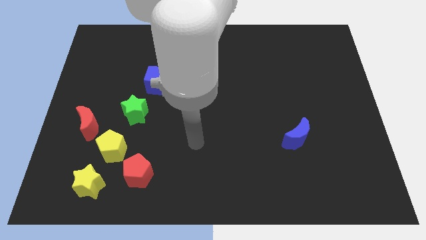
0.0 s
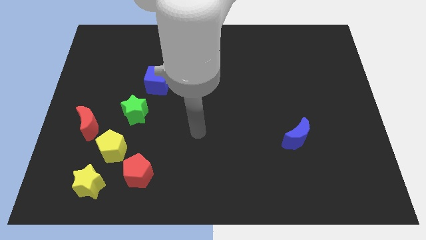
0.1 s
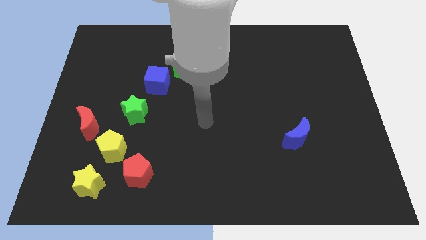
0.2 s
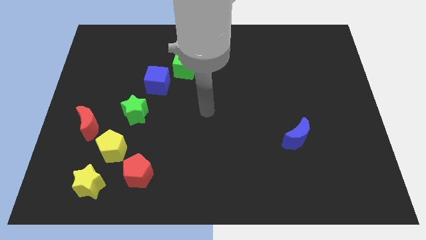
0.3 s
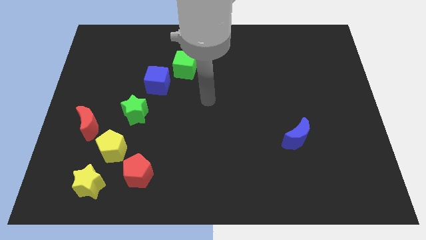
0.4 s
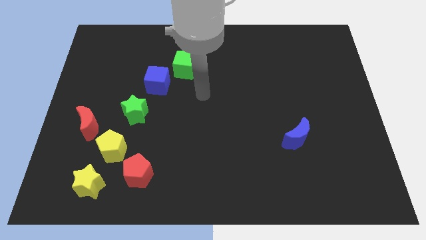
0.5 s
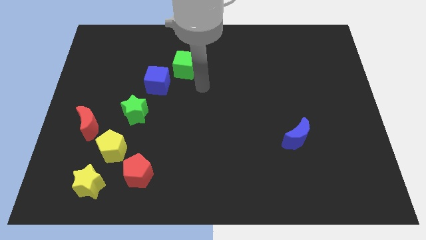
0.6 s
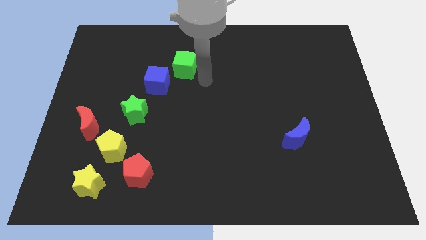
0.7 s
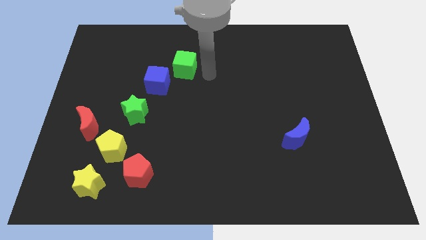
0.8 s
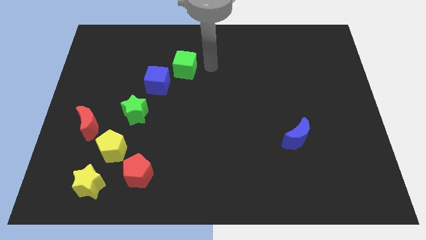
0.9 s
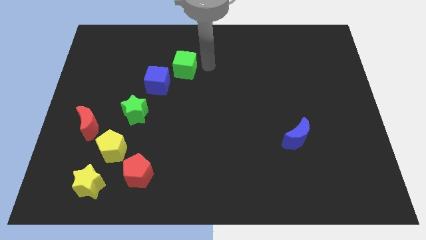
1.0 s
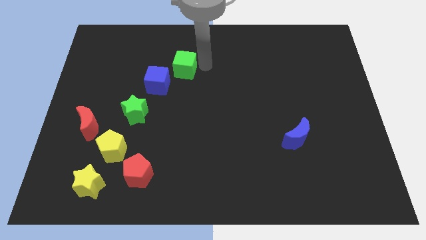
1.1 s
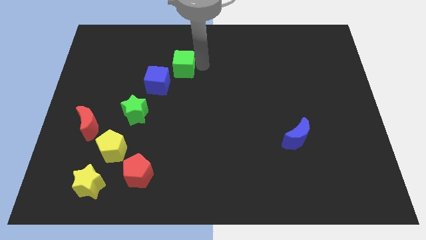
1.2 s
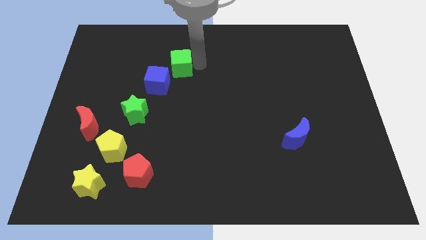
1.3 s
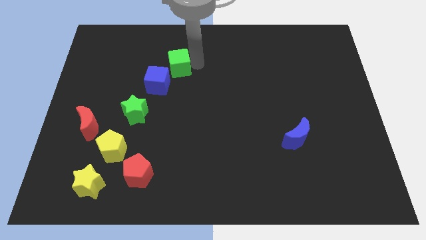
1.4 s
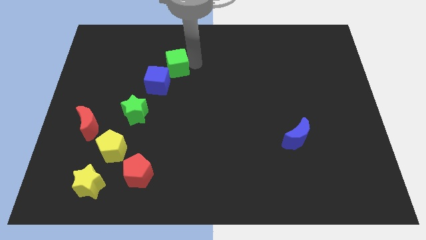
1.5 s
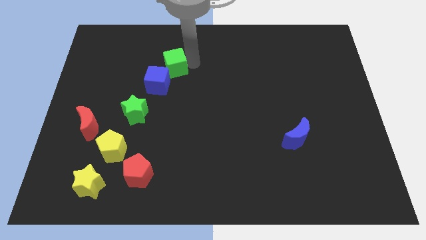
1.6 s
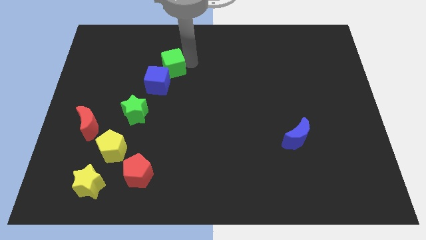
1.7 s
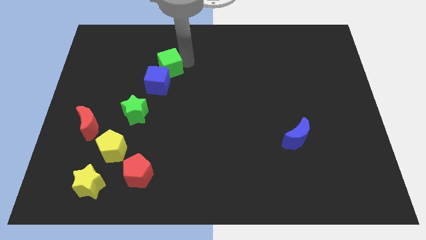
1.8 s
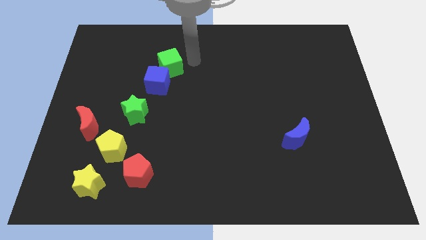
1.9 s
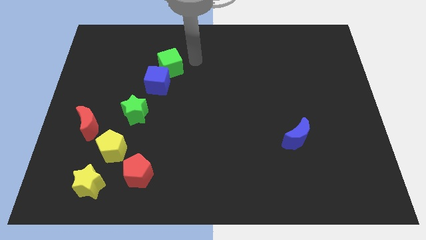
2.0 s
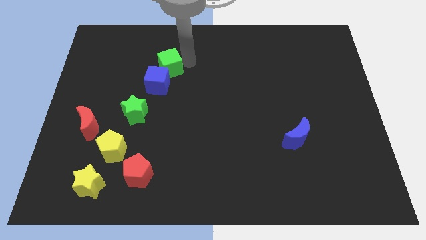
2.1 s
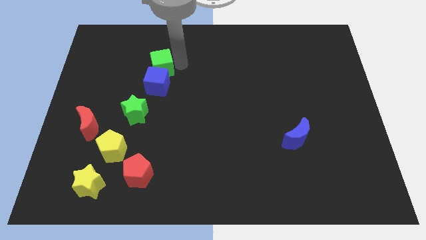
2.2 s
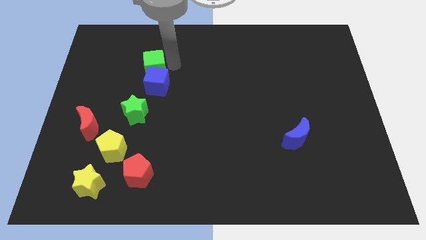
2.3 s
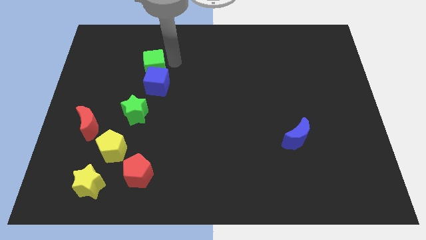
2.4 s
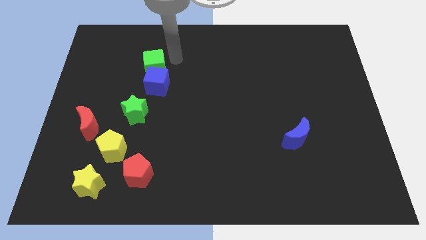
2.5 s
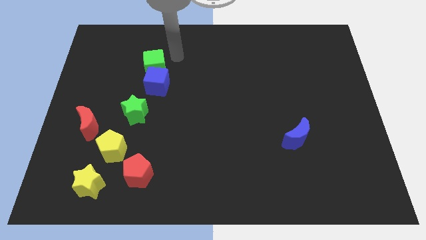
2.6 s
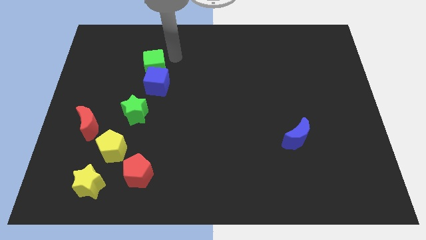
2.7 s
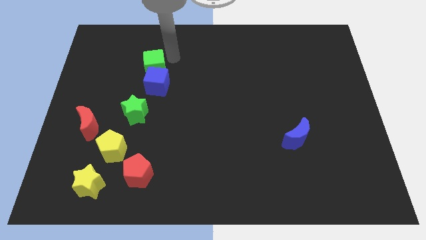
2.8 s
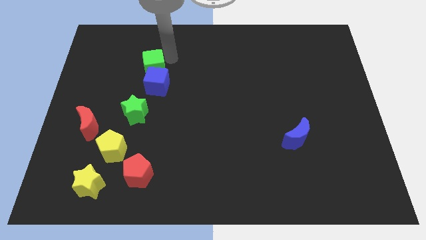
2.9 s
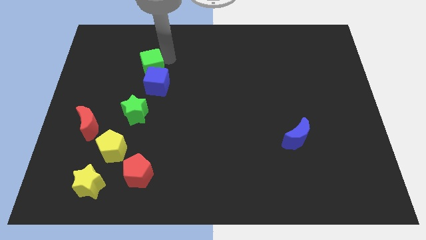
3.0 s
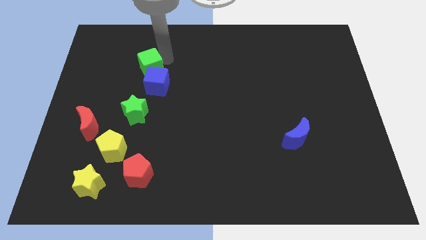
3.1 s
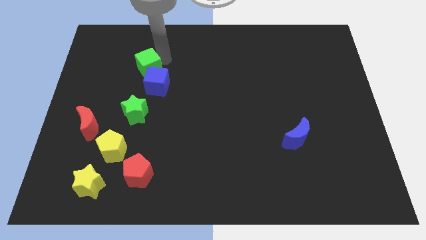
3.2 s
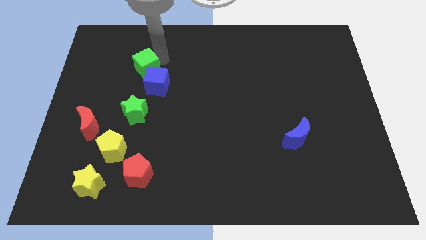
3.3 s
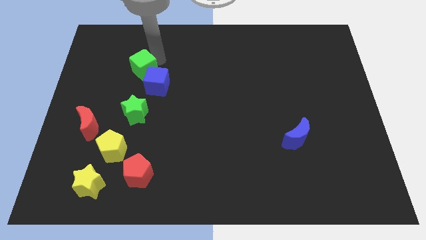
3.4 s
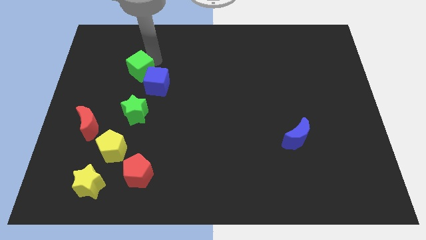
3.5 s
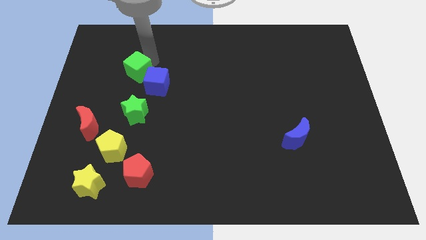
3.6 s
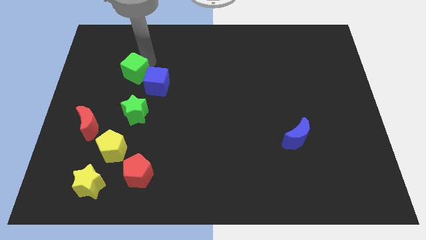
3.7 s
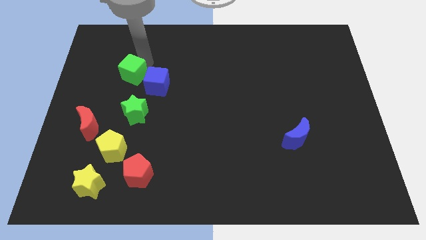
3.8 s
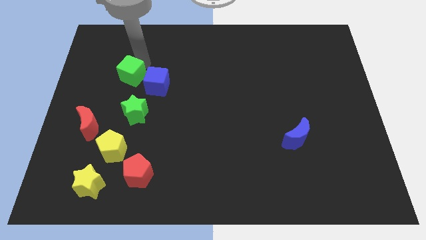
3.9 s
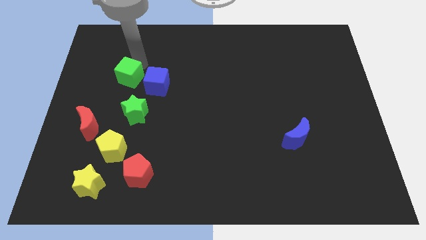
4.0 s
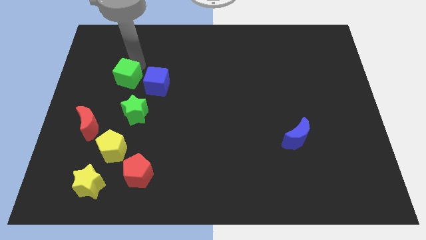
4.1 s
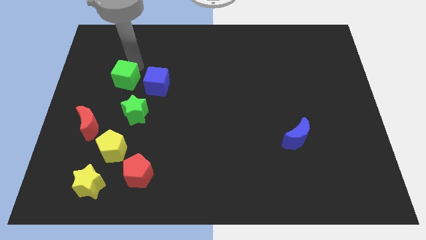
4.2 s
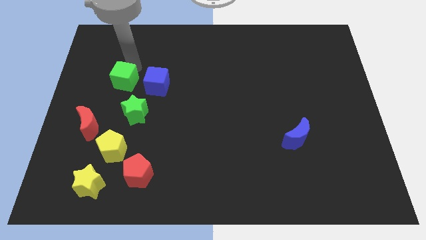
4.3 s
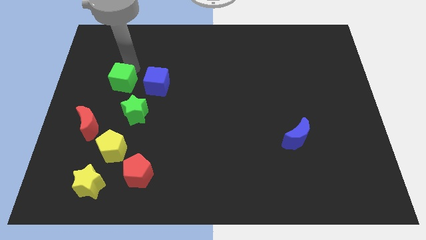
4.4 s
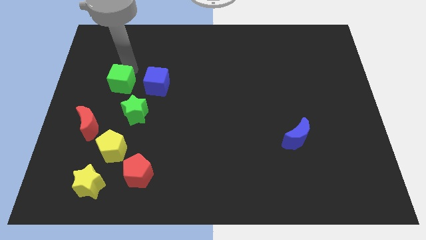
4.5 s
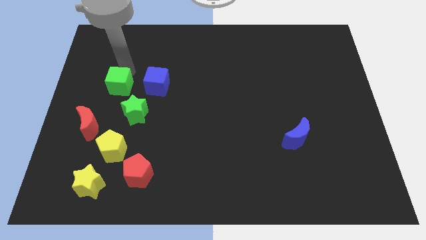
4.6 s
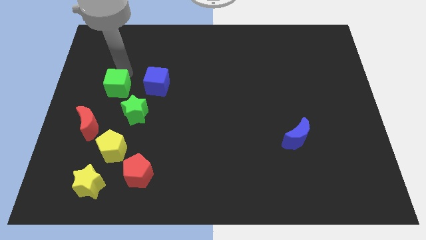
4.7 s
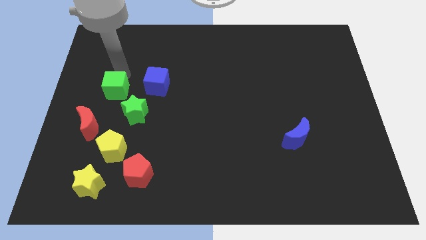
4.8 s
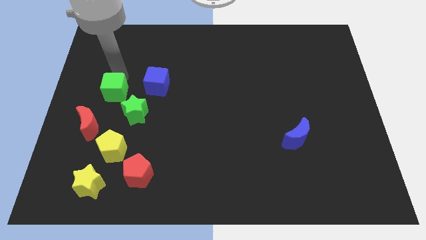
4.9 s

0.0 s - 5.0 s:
slide the green cube to the top right of the red moon

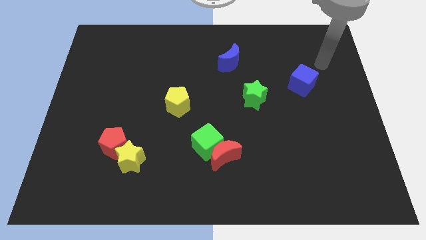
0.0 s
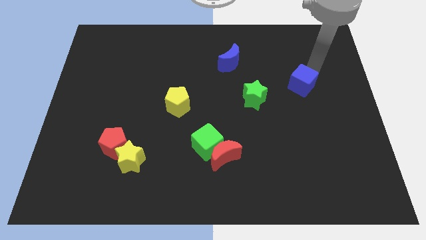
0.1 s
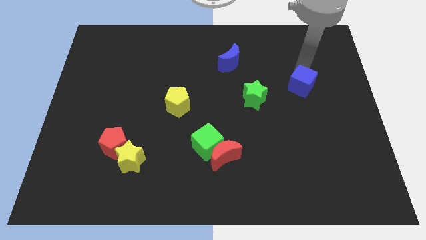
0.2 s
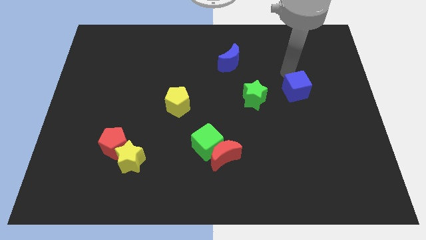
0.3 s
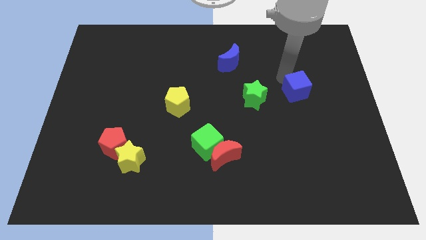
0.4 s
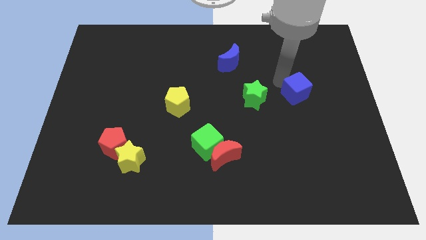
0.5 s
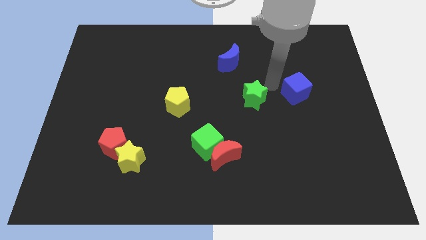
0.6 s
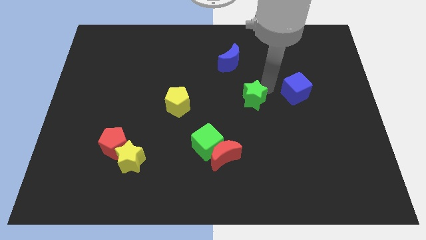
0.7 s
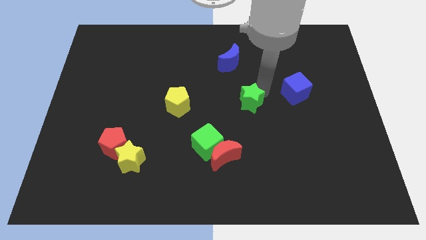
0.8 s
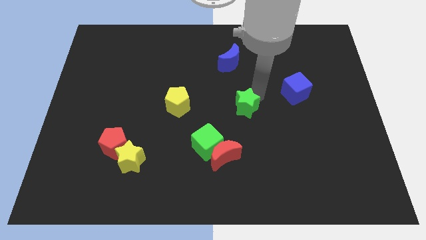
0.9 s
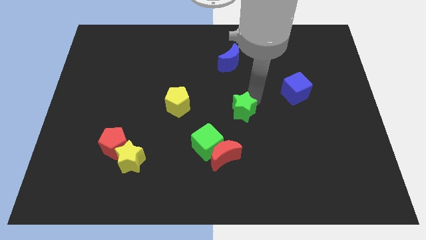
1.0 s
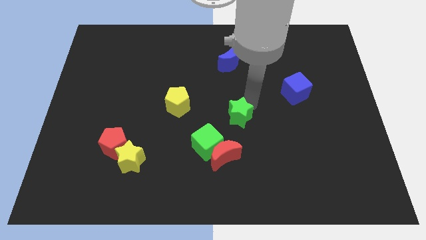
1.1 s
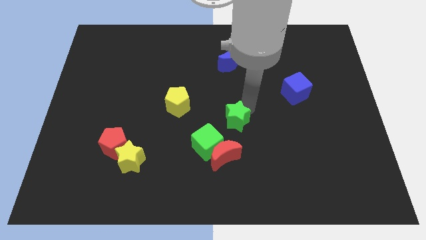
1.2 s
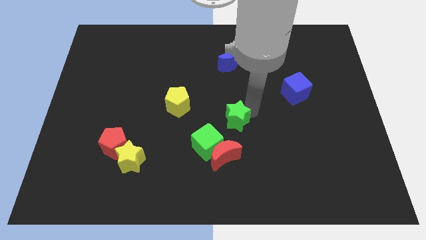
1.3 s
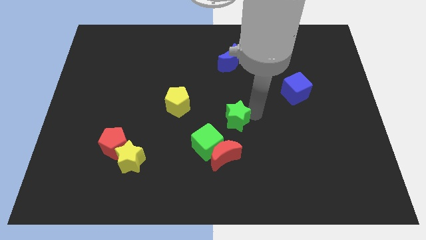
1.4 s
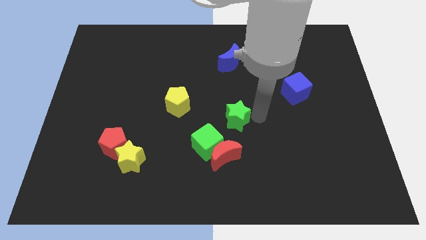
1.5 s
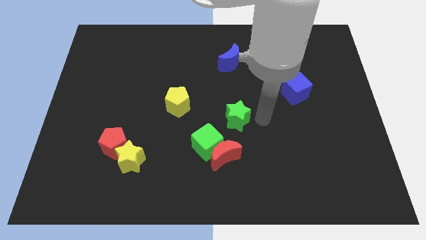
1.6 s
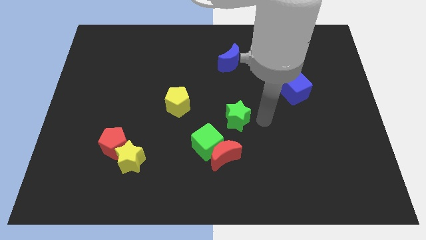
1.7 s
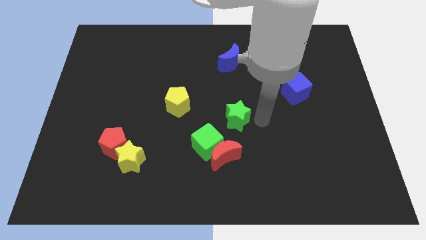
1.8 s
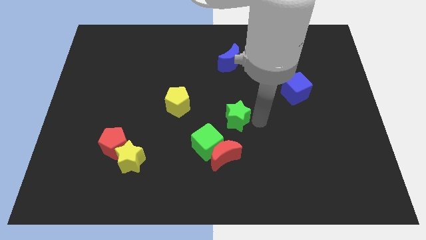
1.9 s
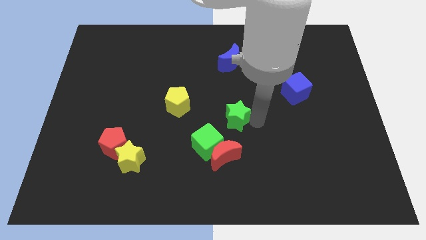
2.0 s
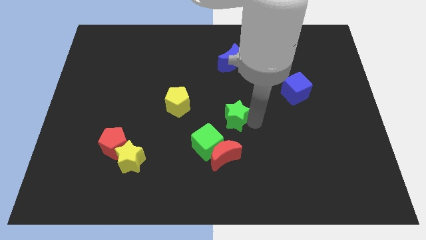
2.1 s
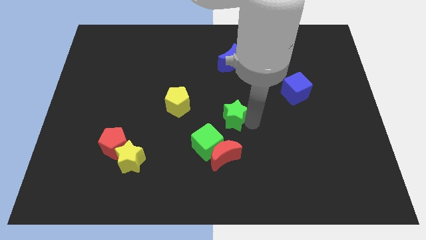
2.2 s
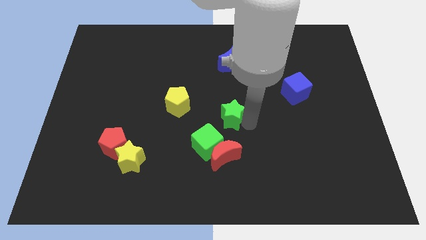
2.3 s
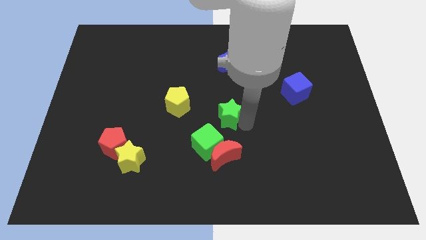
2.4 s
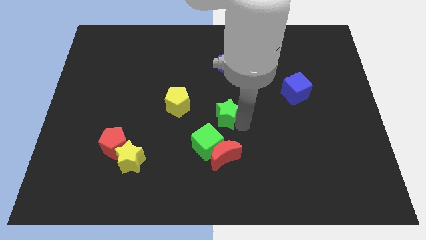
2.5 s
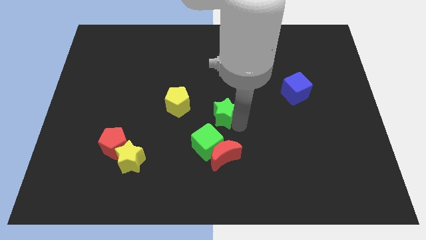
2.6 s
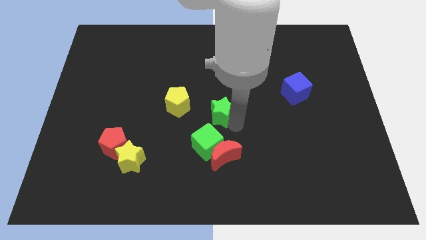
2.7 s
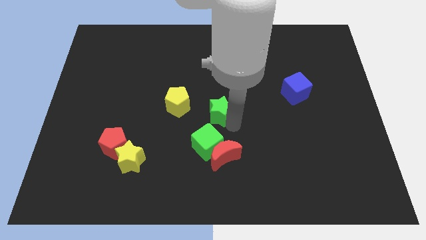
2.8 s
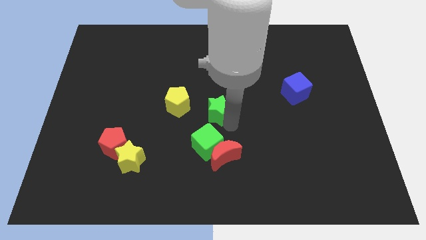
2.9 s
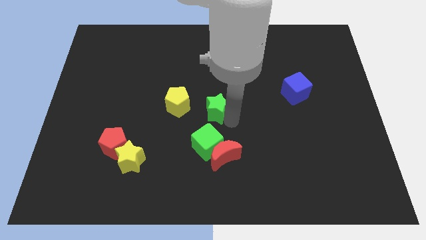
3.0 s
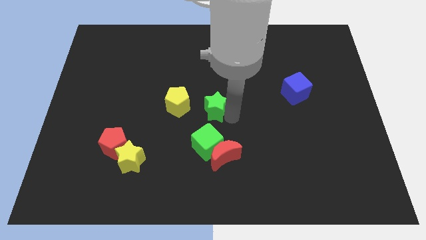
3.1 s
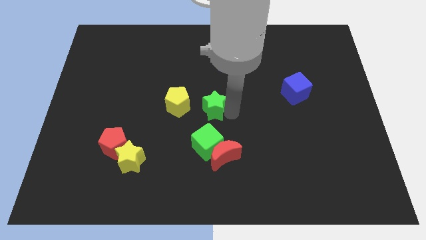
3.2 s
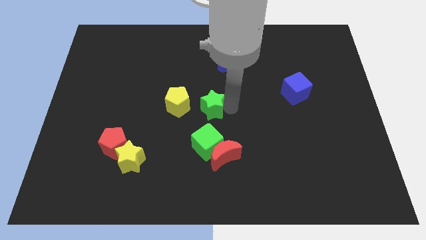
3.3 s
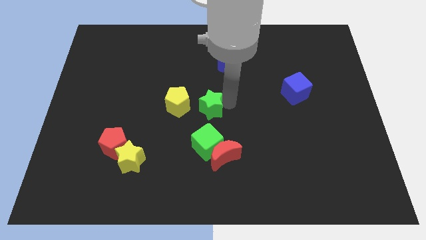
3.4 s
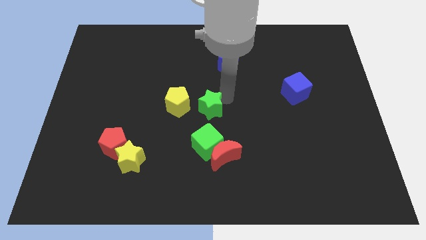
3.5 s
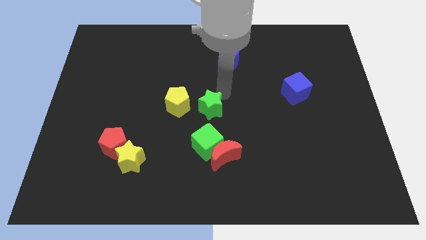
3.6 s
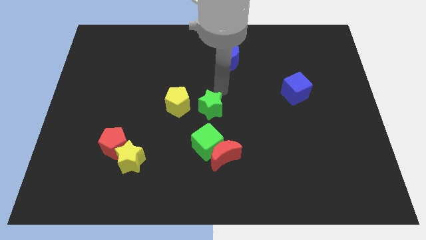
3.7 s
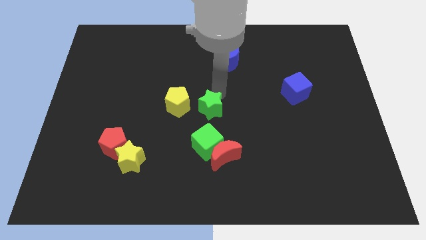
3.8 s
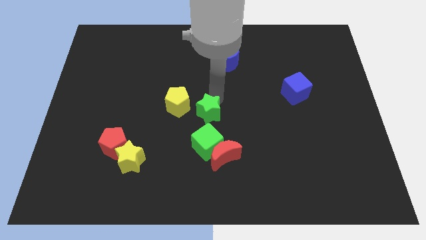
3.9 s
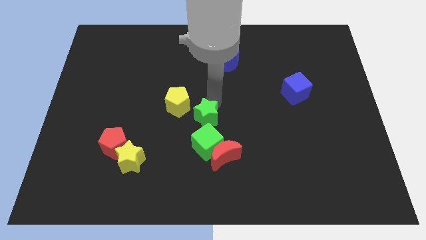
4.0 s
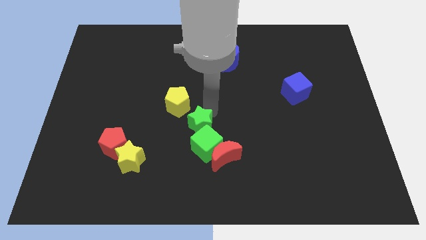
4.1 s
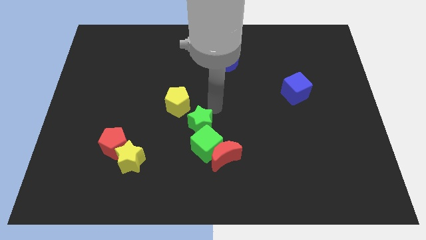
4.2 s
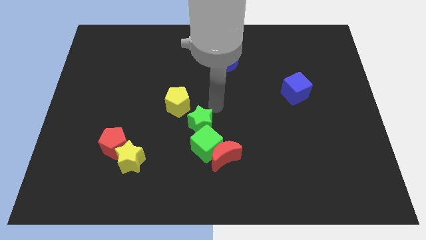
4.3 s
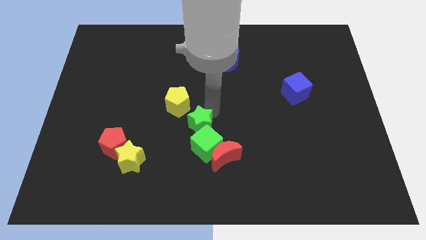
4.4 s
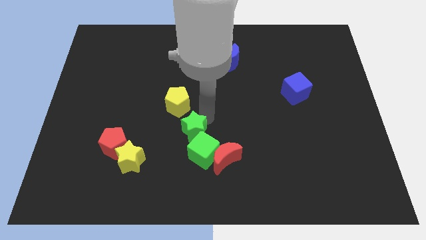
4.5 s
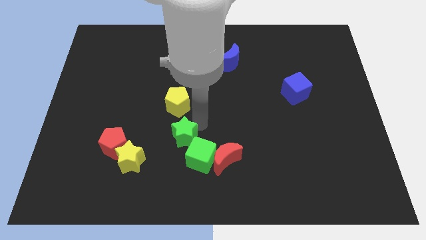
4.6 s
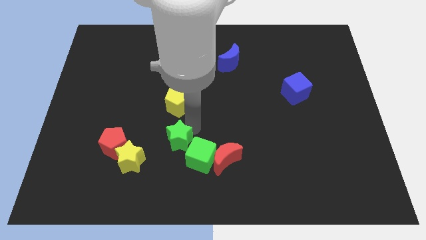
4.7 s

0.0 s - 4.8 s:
move the green star left of the red moon
